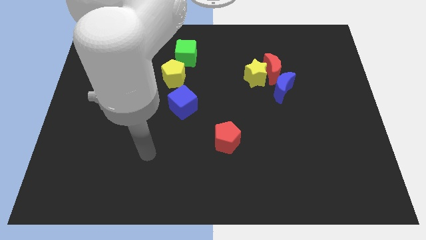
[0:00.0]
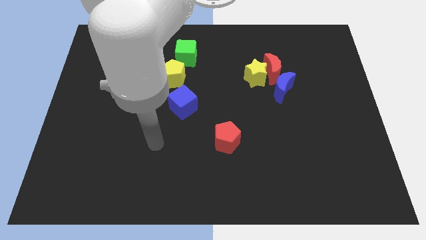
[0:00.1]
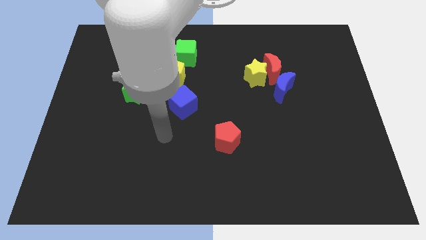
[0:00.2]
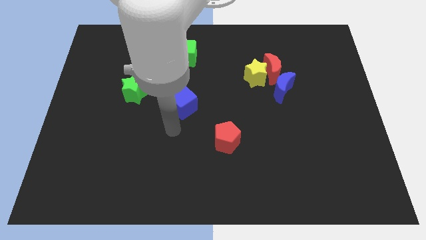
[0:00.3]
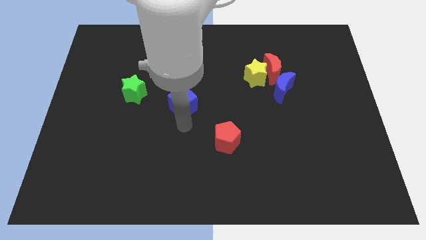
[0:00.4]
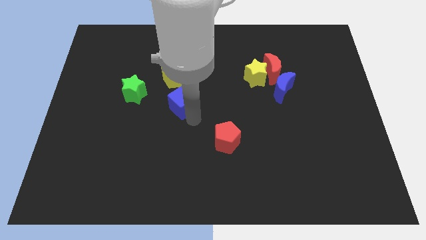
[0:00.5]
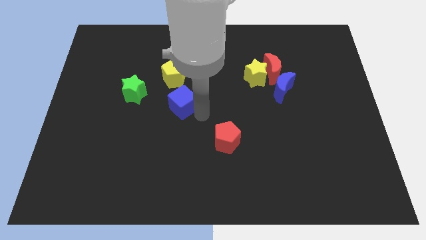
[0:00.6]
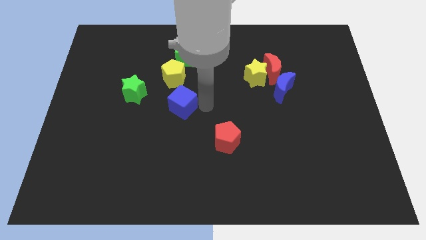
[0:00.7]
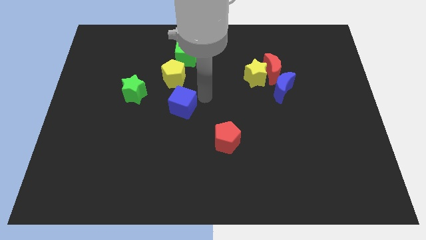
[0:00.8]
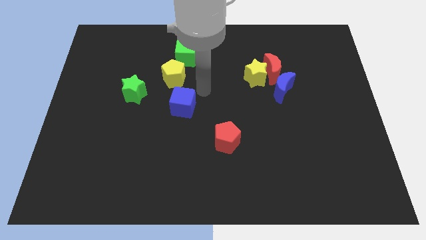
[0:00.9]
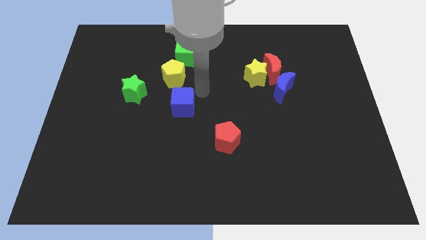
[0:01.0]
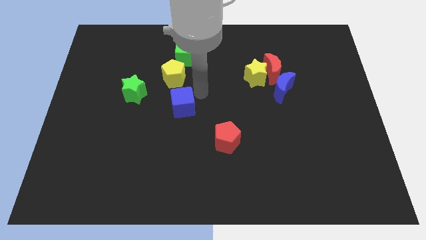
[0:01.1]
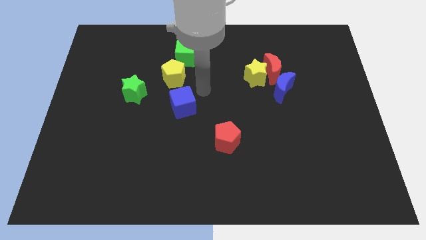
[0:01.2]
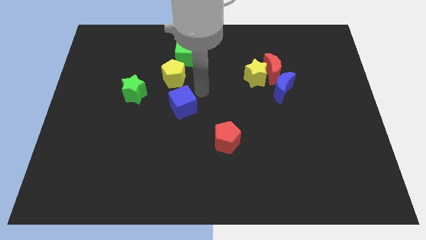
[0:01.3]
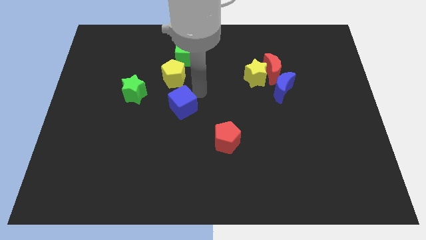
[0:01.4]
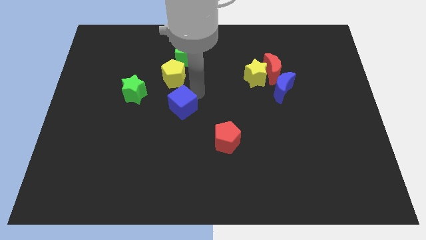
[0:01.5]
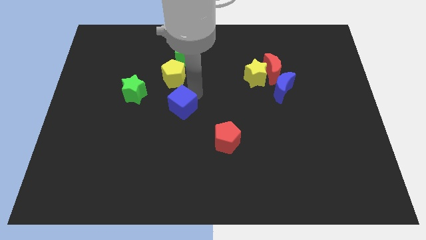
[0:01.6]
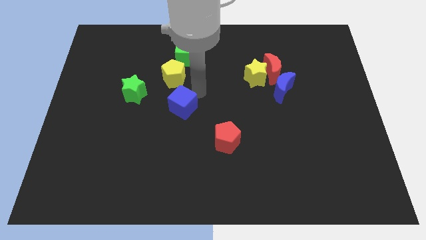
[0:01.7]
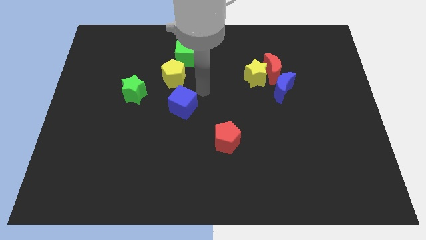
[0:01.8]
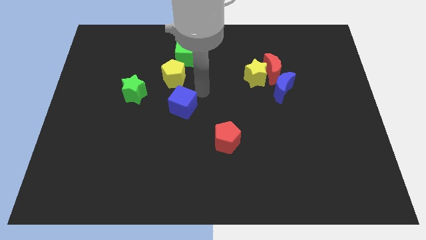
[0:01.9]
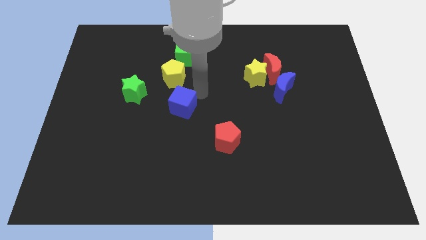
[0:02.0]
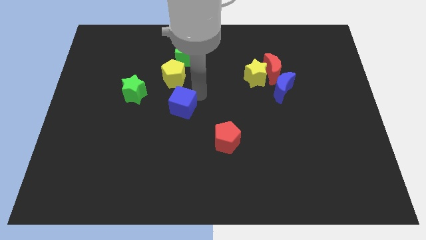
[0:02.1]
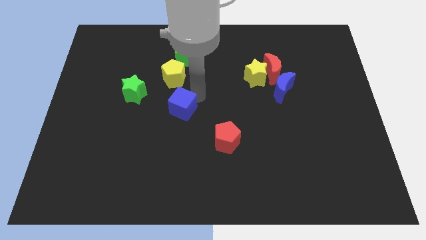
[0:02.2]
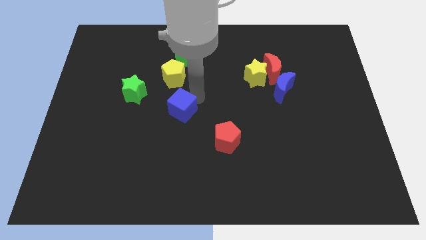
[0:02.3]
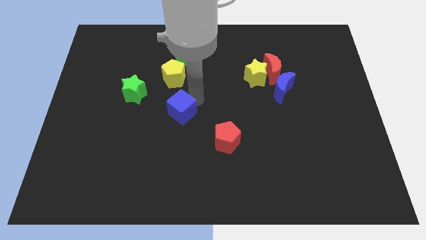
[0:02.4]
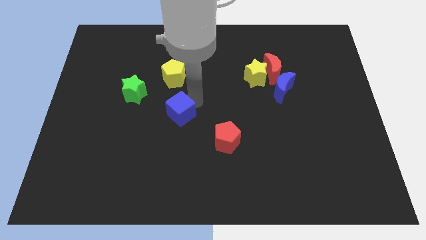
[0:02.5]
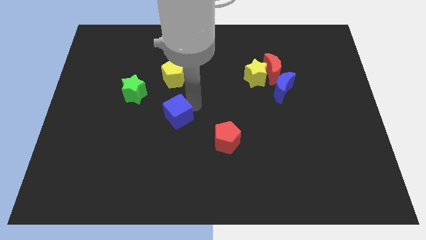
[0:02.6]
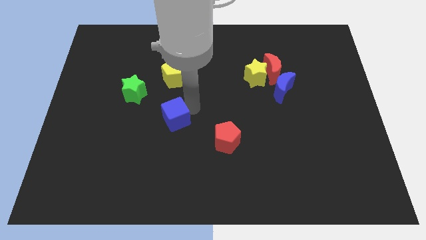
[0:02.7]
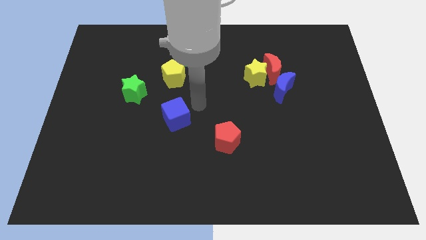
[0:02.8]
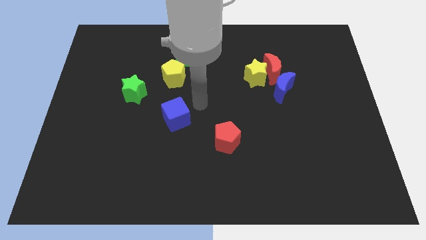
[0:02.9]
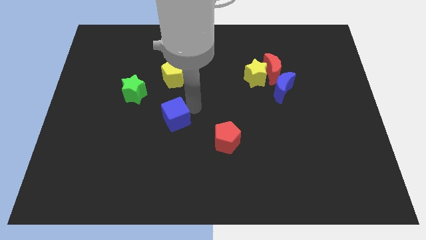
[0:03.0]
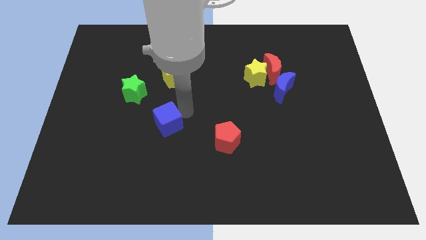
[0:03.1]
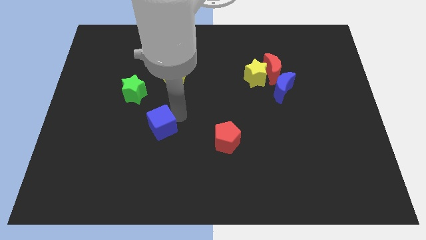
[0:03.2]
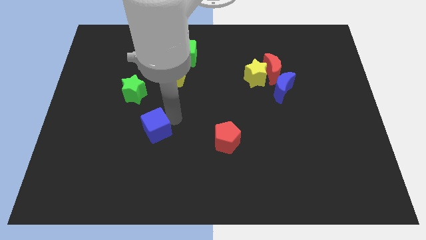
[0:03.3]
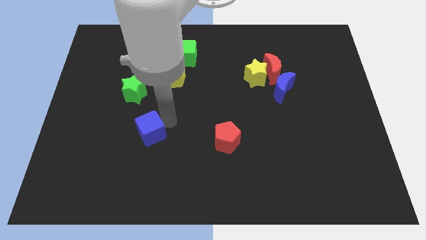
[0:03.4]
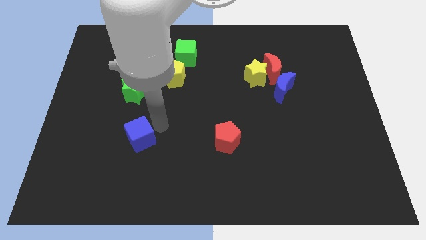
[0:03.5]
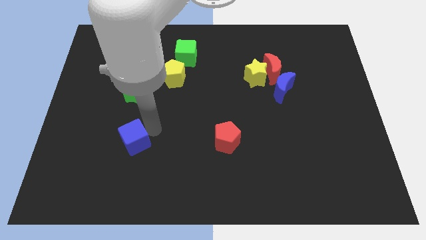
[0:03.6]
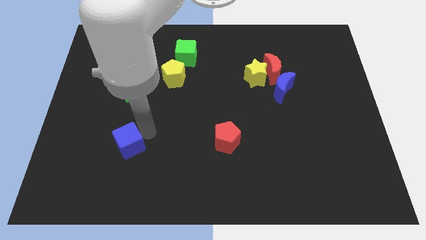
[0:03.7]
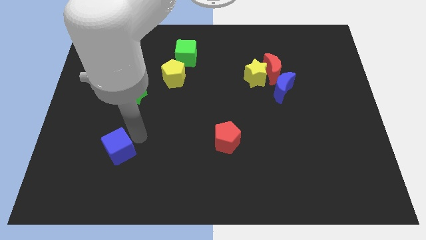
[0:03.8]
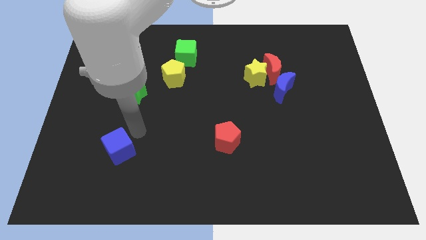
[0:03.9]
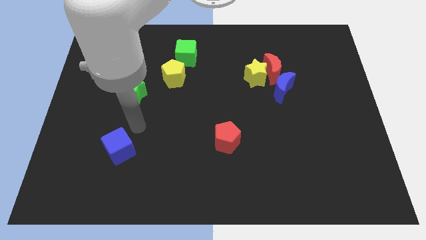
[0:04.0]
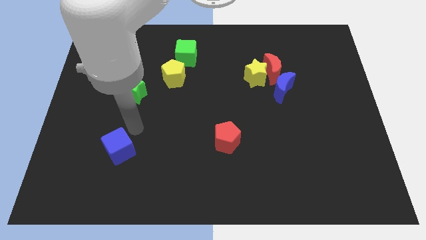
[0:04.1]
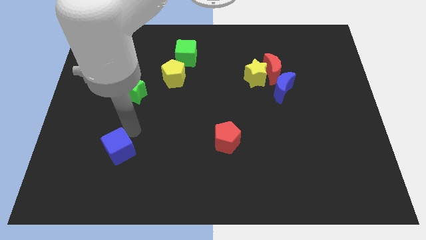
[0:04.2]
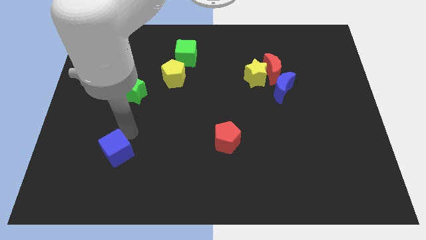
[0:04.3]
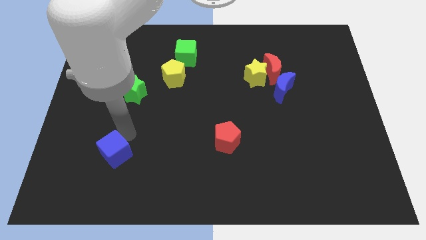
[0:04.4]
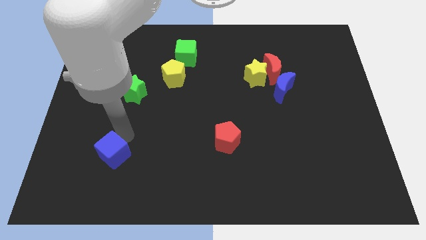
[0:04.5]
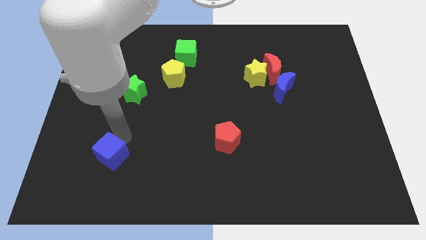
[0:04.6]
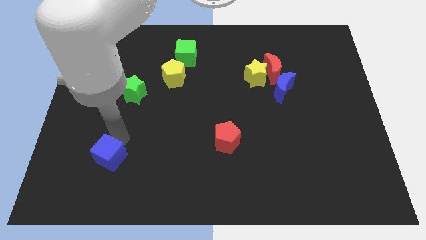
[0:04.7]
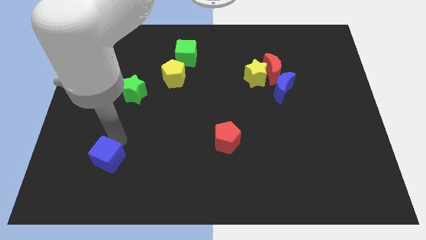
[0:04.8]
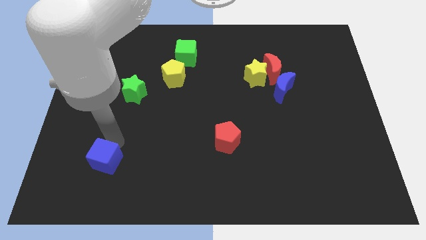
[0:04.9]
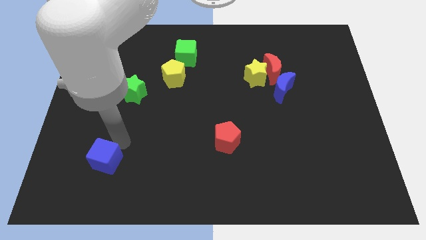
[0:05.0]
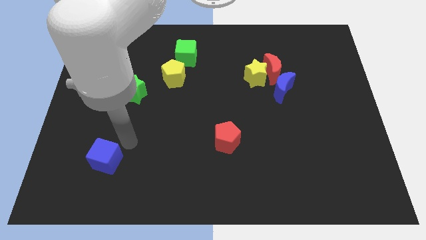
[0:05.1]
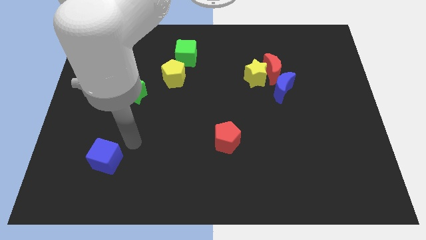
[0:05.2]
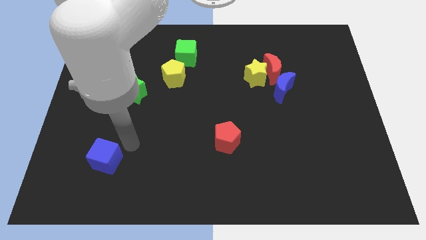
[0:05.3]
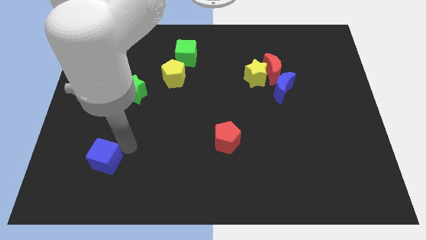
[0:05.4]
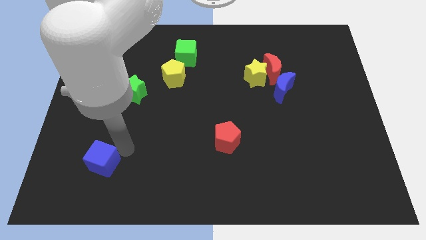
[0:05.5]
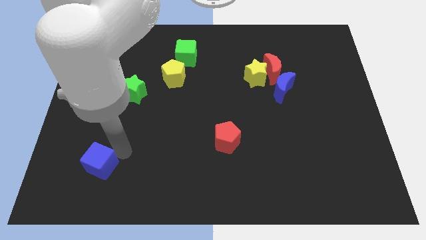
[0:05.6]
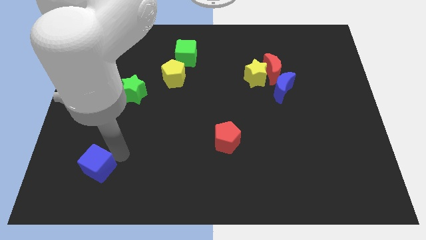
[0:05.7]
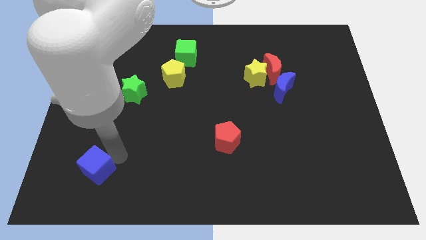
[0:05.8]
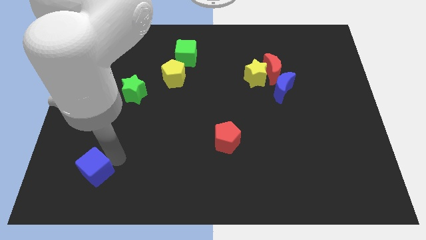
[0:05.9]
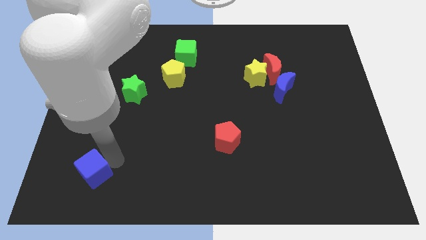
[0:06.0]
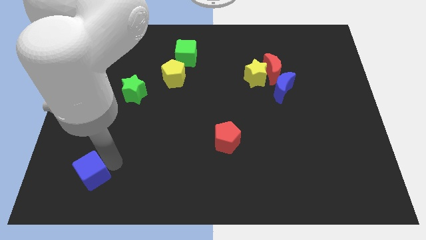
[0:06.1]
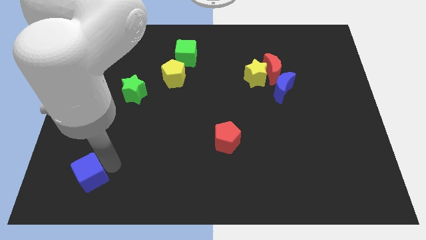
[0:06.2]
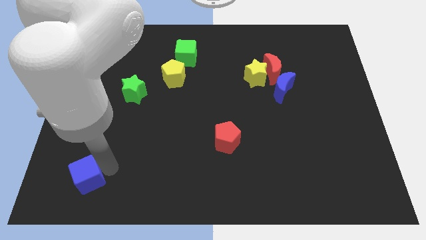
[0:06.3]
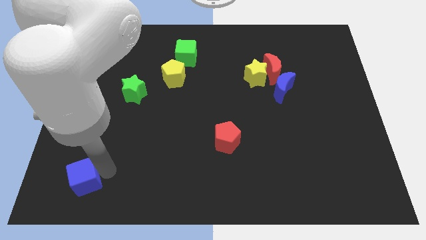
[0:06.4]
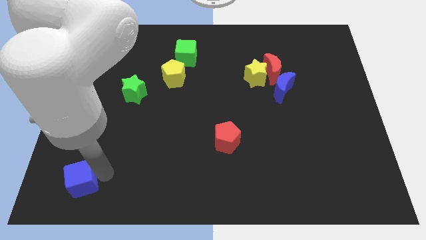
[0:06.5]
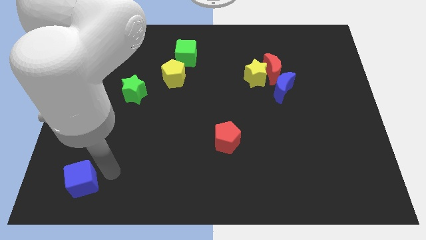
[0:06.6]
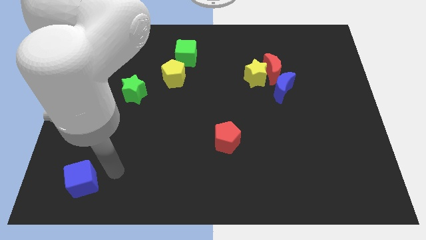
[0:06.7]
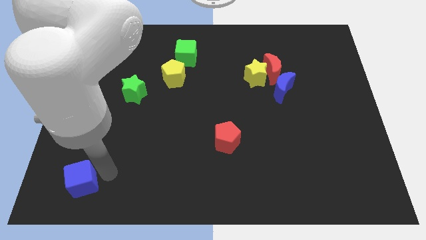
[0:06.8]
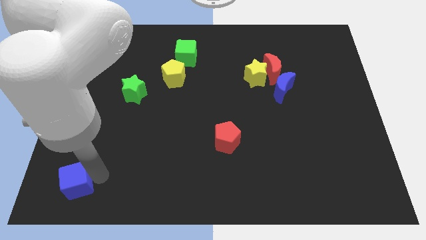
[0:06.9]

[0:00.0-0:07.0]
put the blue cube to the bottom left
